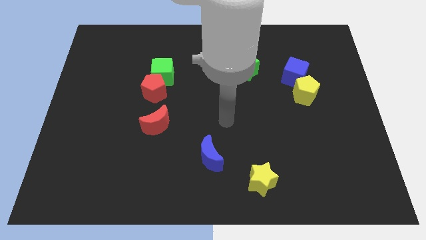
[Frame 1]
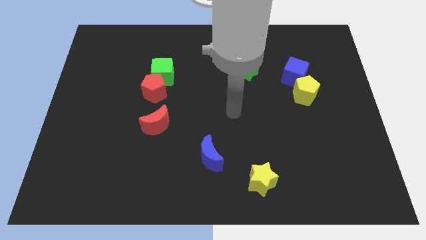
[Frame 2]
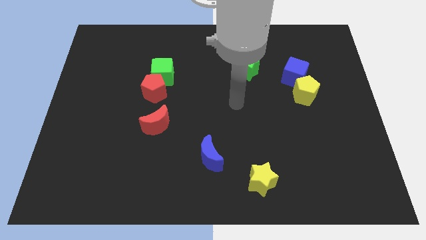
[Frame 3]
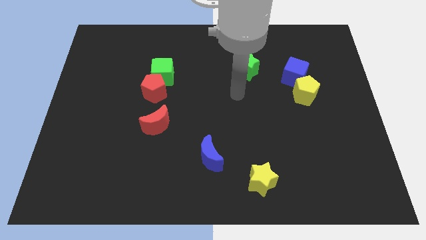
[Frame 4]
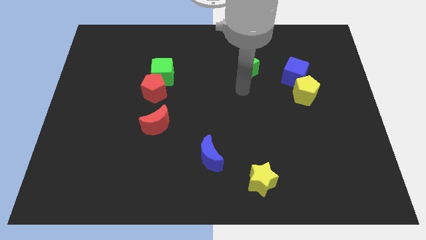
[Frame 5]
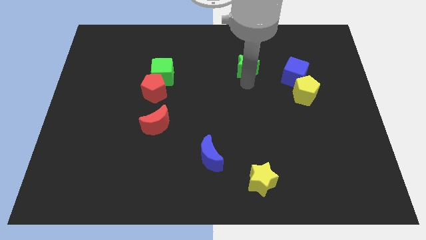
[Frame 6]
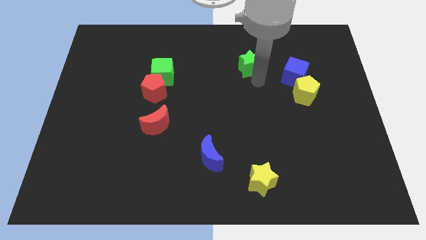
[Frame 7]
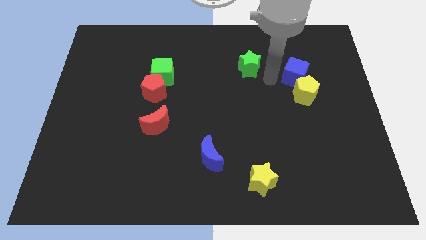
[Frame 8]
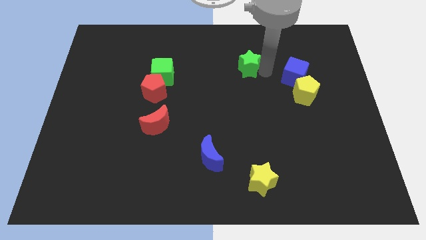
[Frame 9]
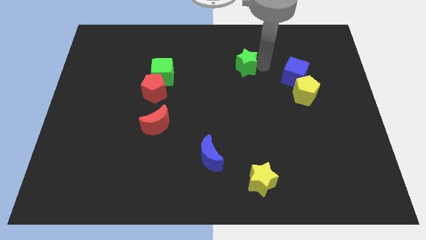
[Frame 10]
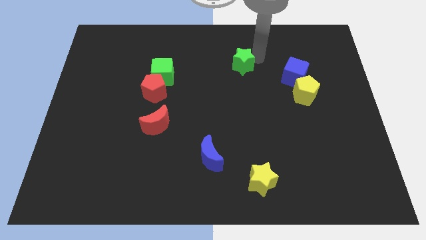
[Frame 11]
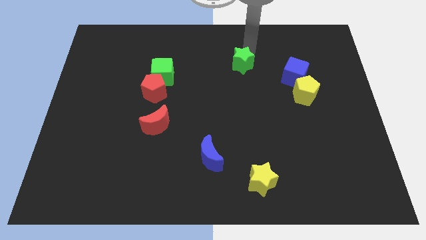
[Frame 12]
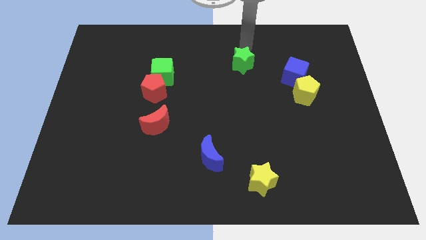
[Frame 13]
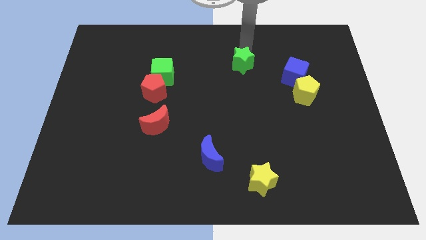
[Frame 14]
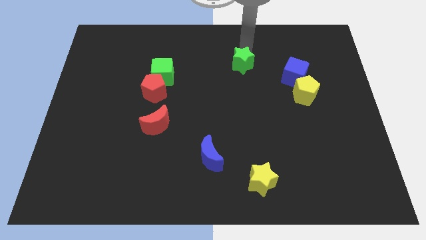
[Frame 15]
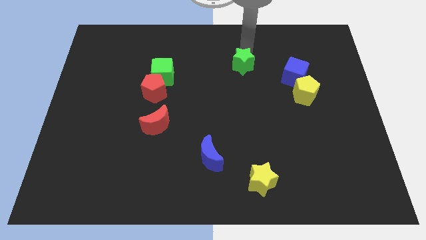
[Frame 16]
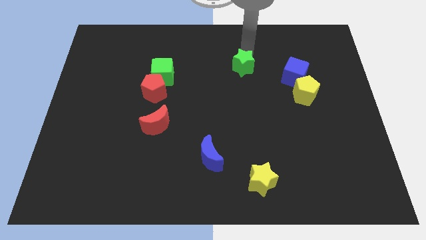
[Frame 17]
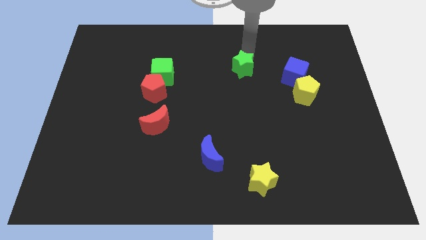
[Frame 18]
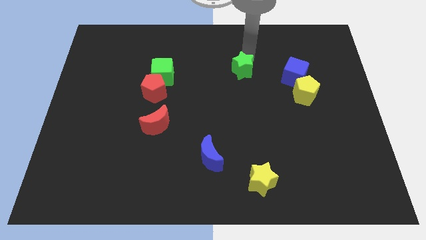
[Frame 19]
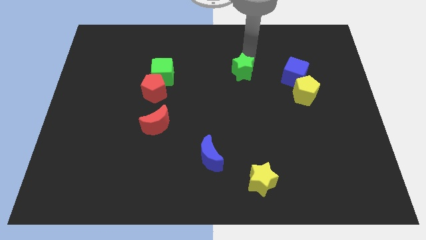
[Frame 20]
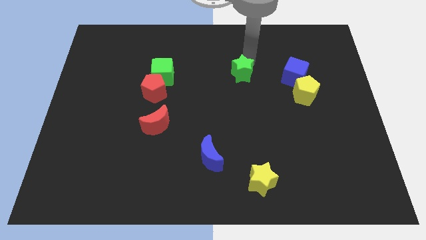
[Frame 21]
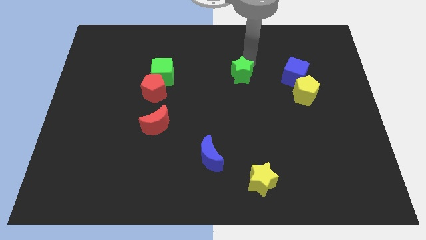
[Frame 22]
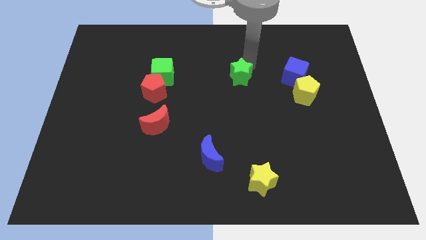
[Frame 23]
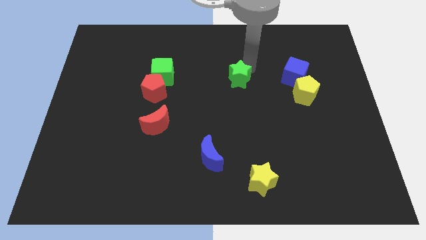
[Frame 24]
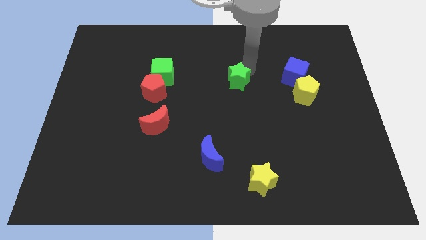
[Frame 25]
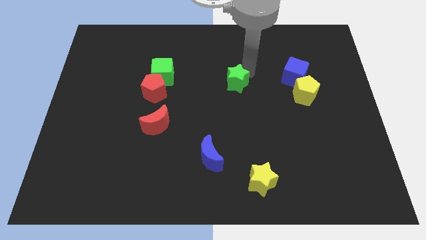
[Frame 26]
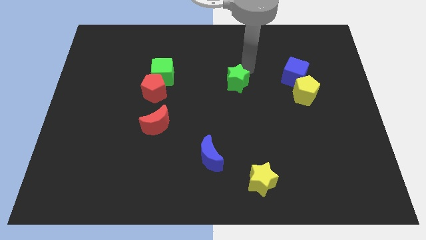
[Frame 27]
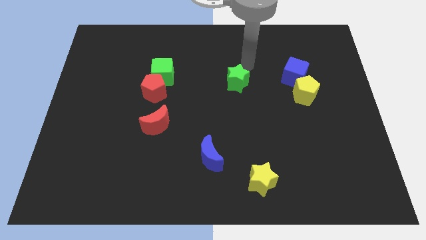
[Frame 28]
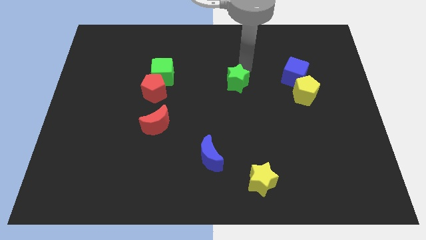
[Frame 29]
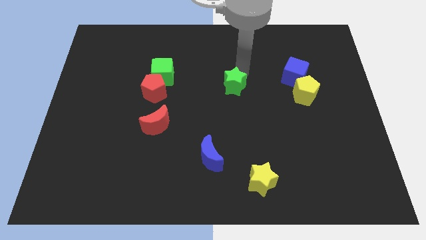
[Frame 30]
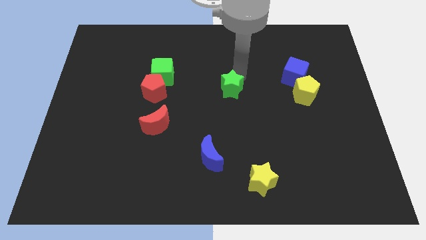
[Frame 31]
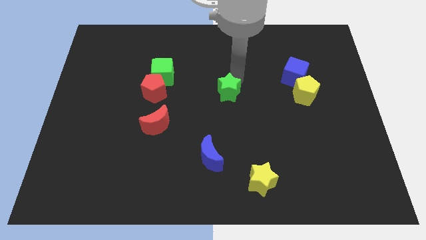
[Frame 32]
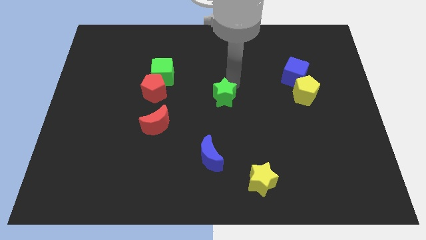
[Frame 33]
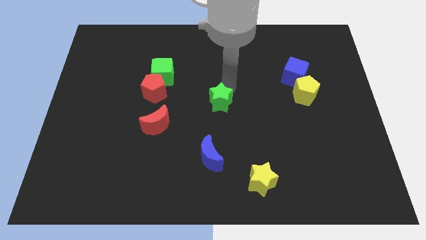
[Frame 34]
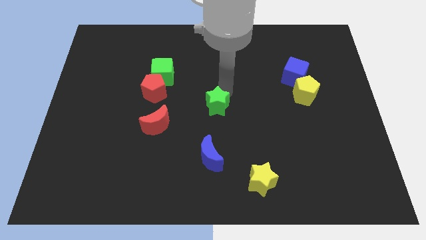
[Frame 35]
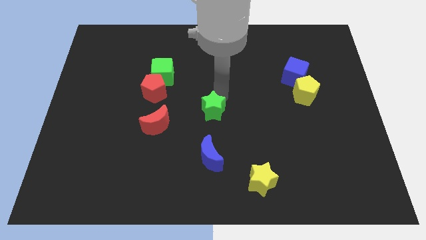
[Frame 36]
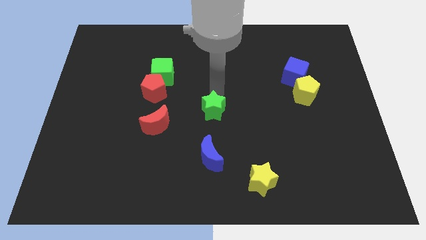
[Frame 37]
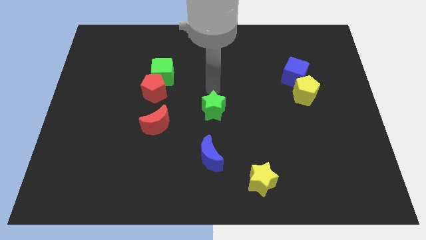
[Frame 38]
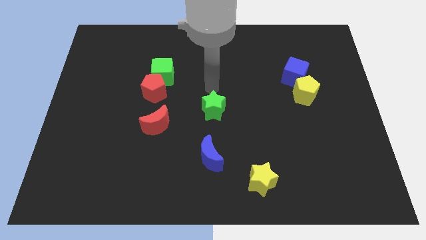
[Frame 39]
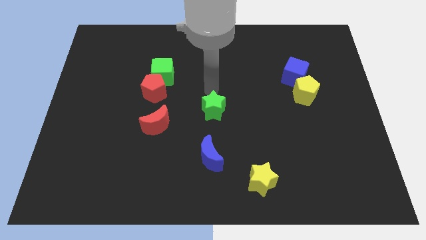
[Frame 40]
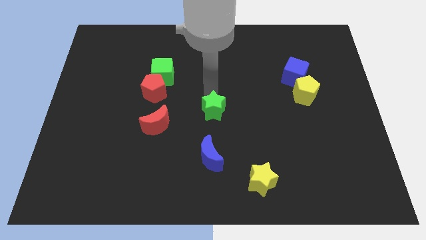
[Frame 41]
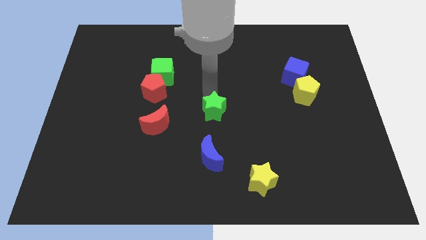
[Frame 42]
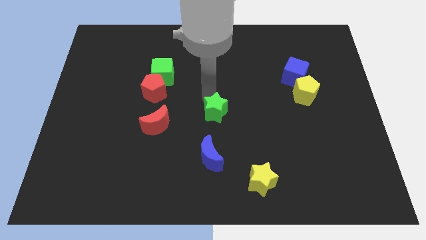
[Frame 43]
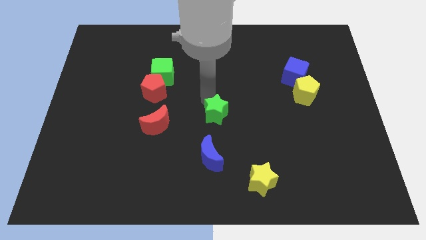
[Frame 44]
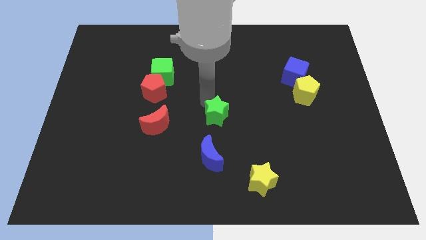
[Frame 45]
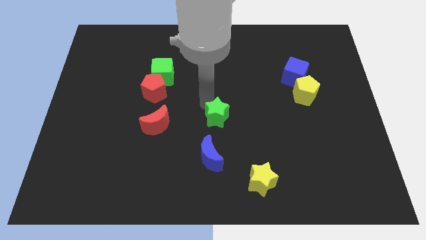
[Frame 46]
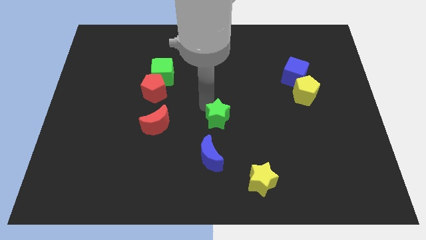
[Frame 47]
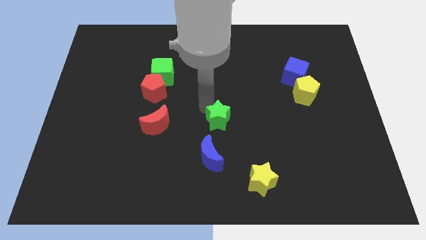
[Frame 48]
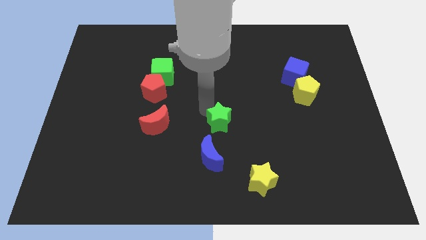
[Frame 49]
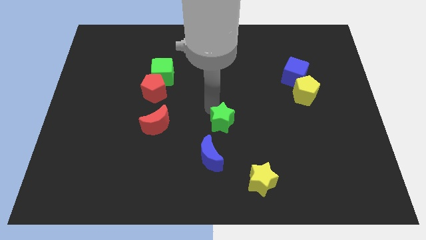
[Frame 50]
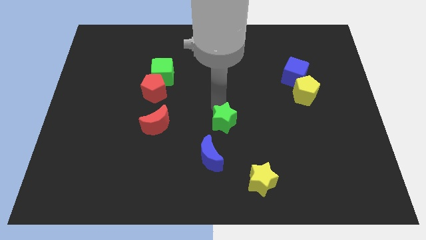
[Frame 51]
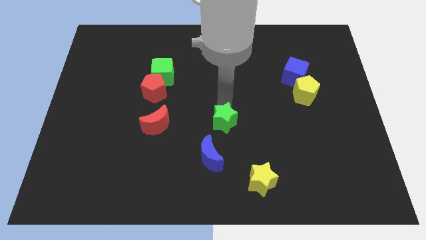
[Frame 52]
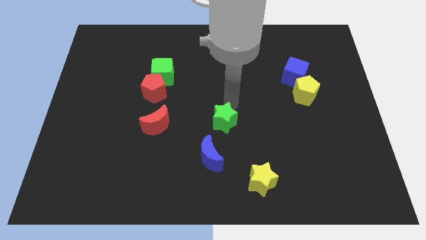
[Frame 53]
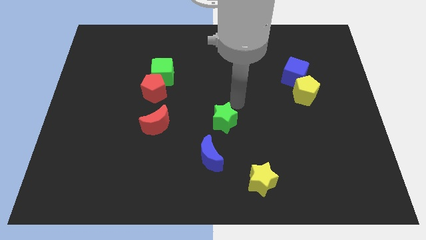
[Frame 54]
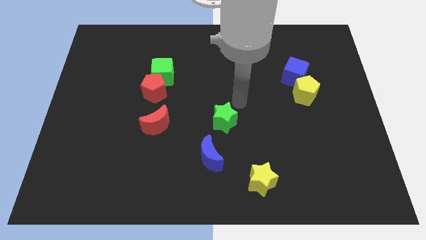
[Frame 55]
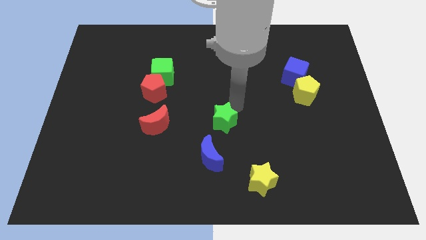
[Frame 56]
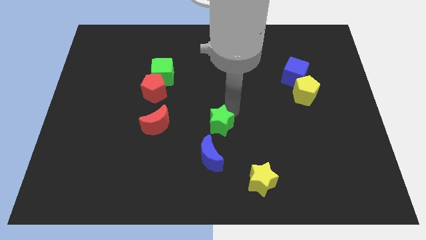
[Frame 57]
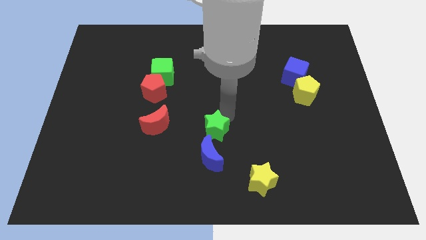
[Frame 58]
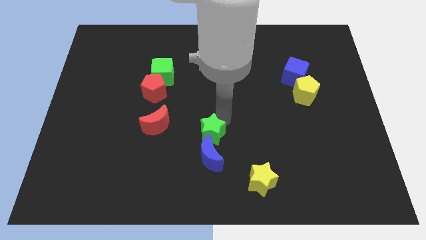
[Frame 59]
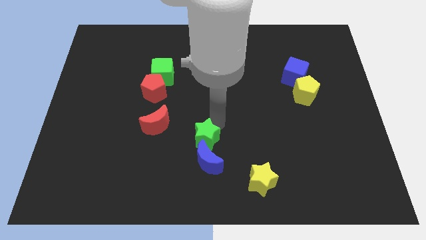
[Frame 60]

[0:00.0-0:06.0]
put the green star to the blue moon

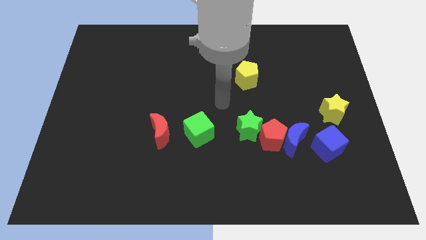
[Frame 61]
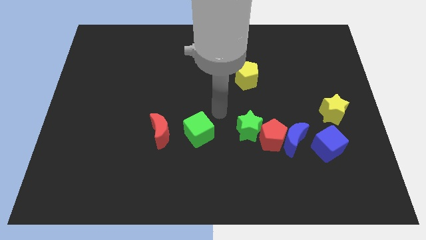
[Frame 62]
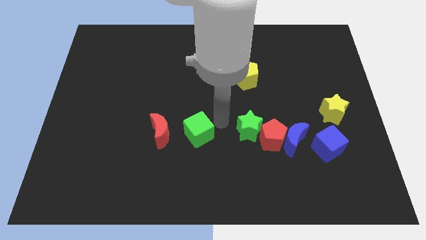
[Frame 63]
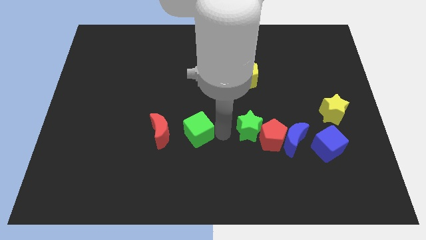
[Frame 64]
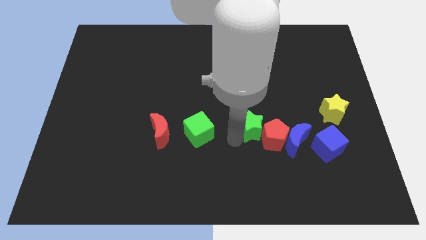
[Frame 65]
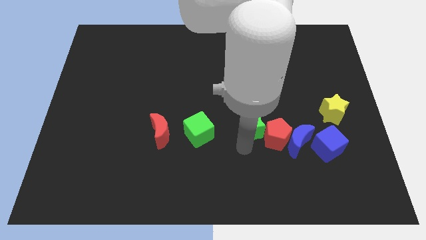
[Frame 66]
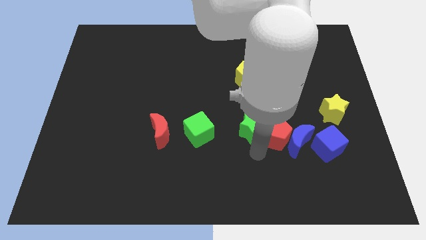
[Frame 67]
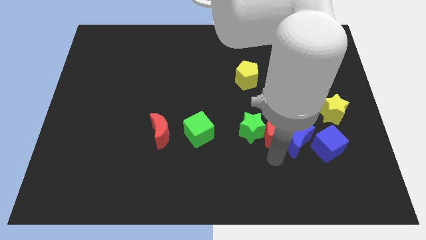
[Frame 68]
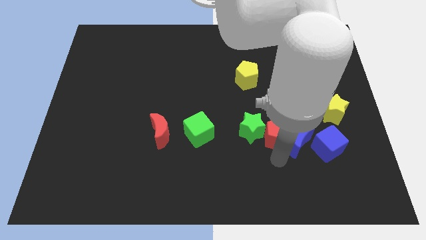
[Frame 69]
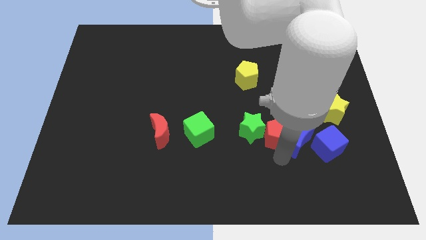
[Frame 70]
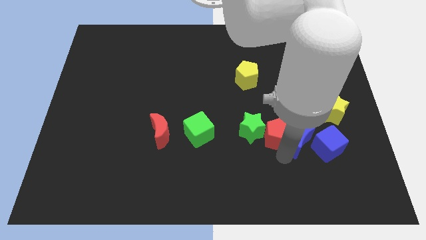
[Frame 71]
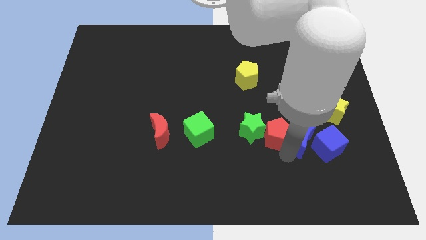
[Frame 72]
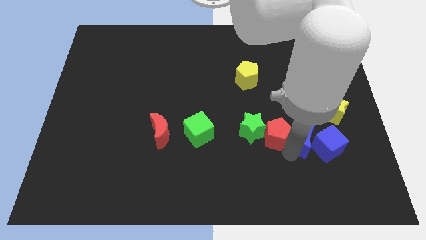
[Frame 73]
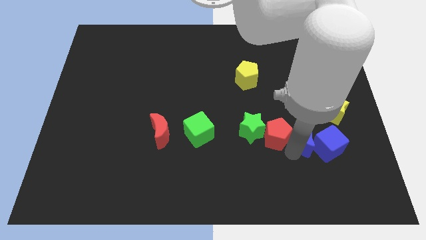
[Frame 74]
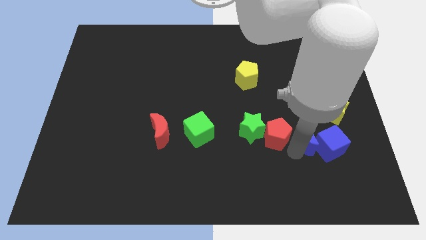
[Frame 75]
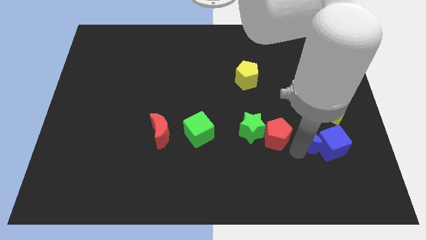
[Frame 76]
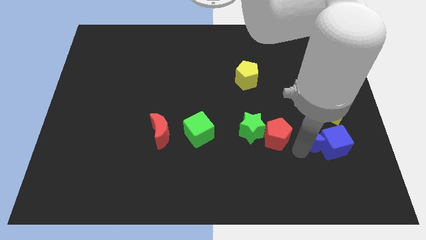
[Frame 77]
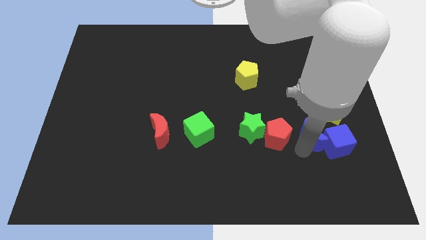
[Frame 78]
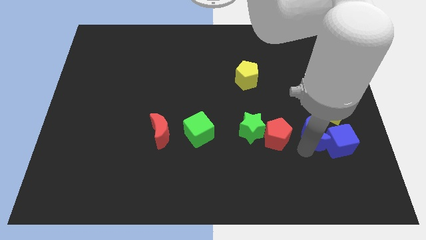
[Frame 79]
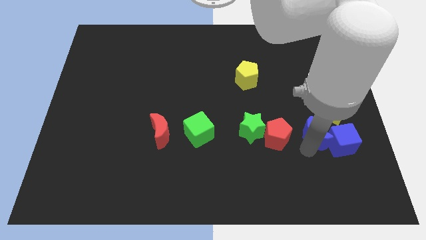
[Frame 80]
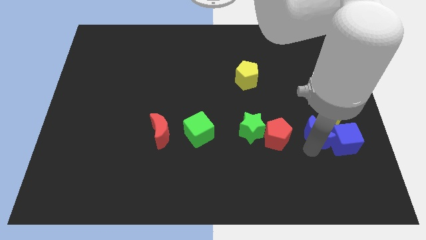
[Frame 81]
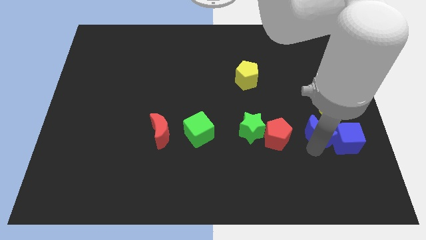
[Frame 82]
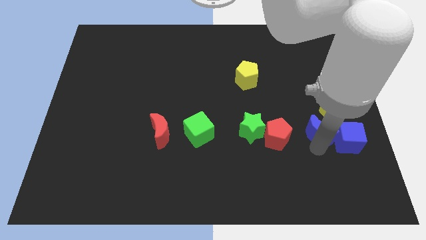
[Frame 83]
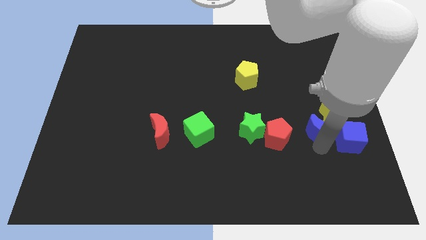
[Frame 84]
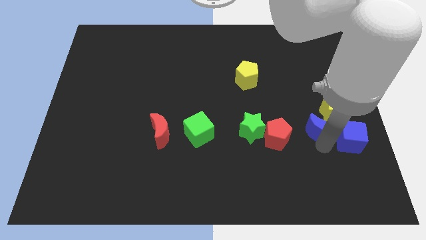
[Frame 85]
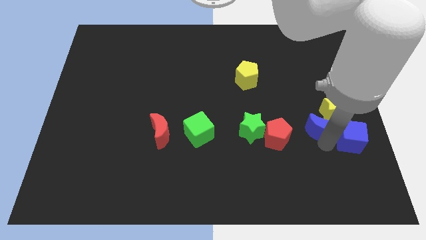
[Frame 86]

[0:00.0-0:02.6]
push the blue moon next to the yellow star
